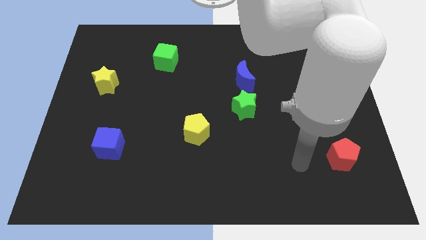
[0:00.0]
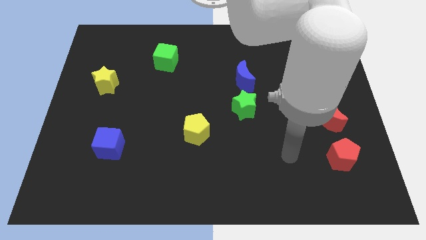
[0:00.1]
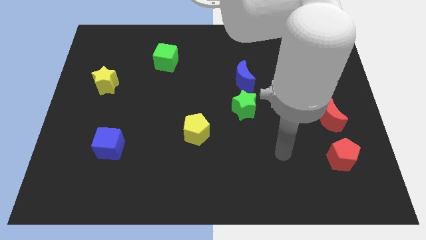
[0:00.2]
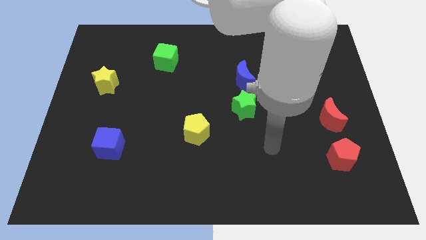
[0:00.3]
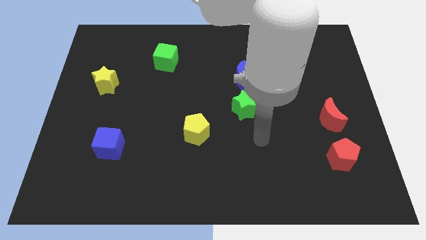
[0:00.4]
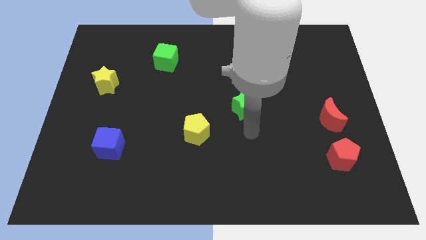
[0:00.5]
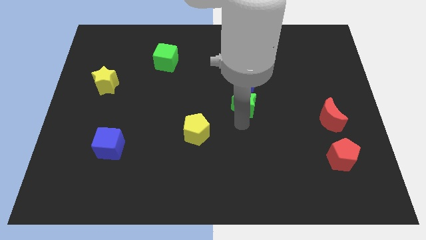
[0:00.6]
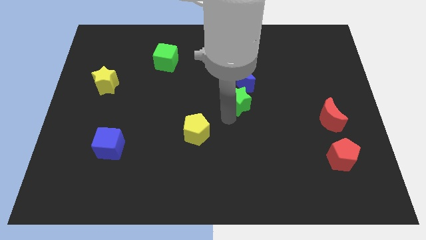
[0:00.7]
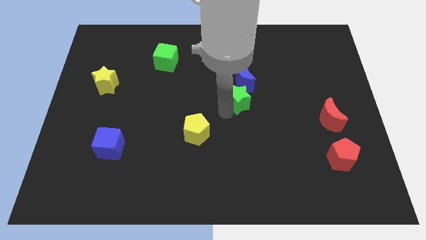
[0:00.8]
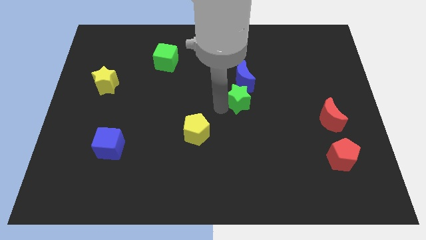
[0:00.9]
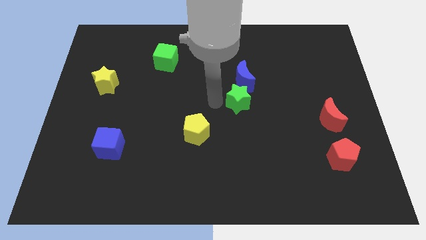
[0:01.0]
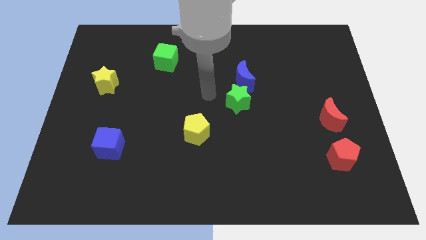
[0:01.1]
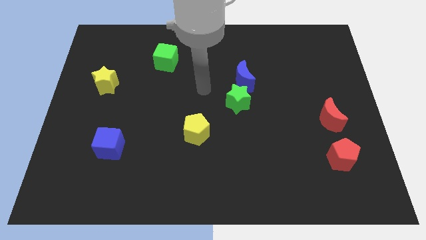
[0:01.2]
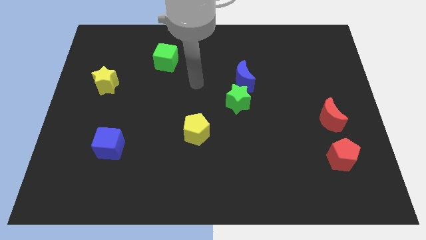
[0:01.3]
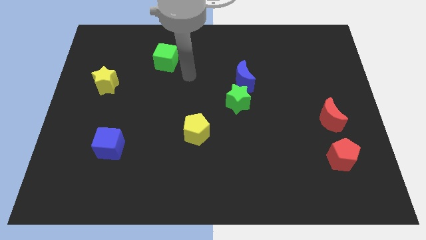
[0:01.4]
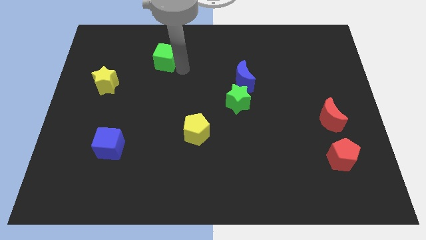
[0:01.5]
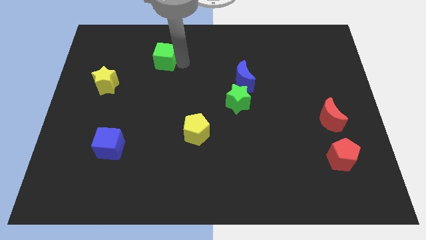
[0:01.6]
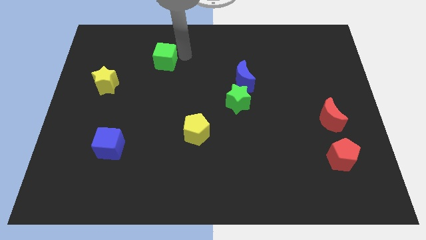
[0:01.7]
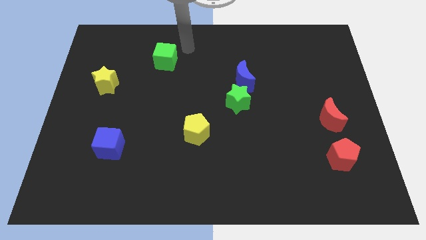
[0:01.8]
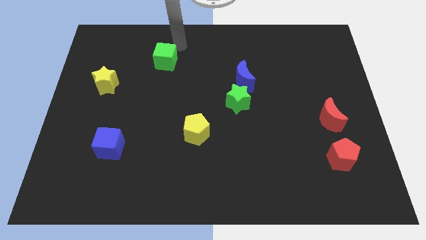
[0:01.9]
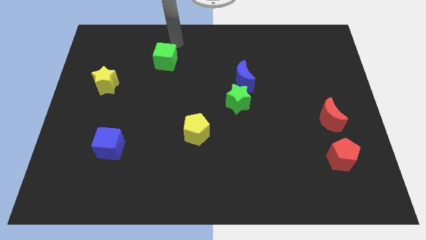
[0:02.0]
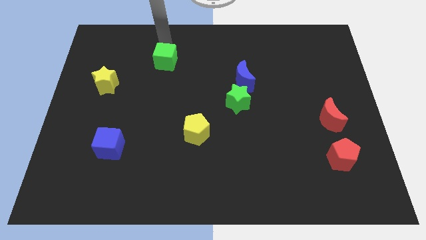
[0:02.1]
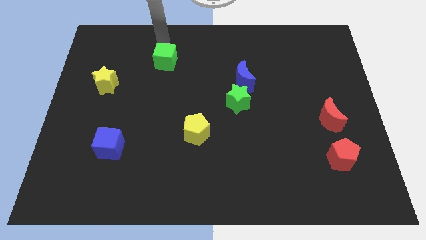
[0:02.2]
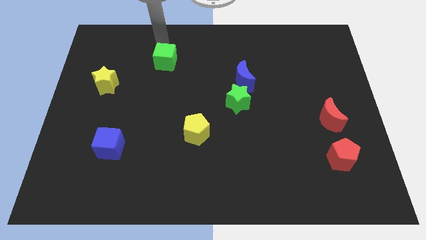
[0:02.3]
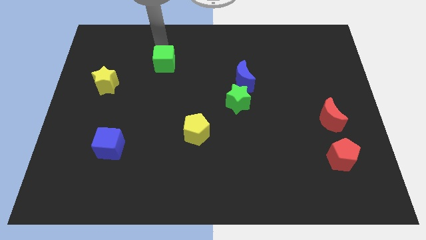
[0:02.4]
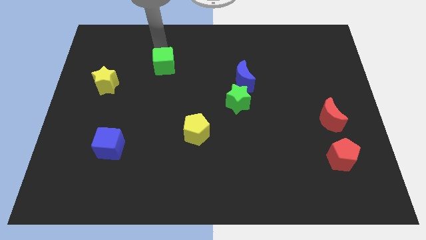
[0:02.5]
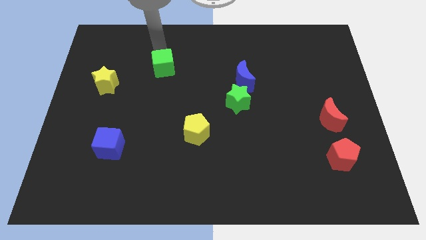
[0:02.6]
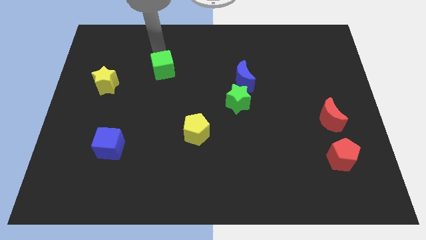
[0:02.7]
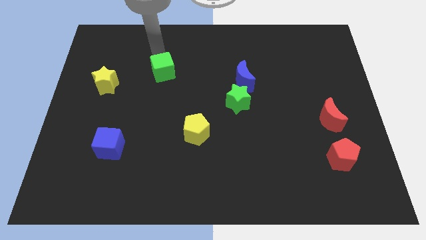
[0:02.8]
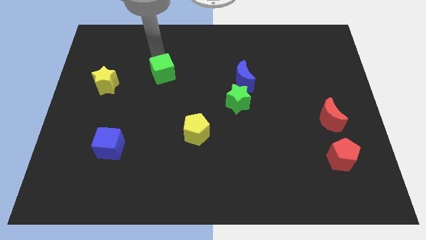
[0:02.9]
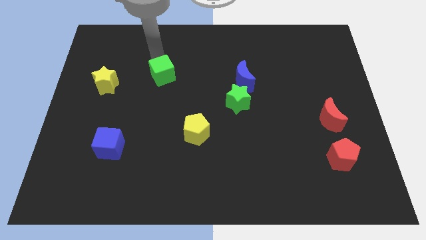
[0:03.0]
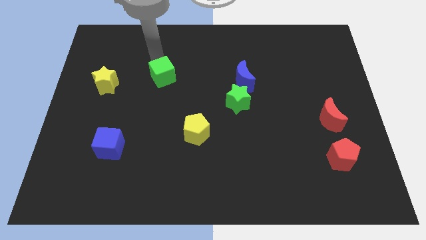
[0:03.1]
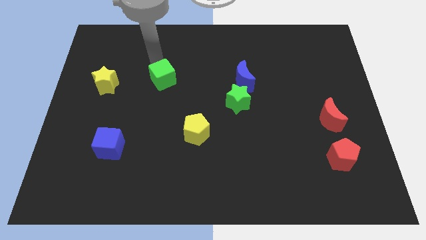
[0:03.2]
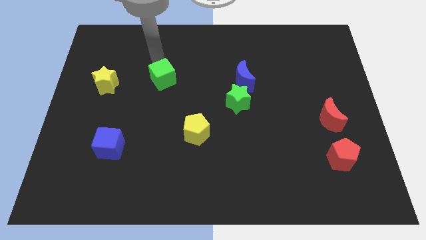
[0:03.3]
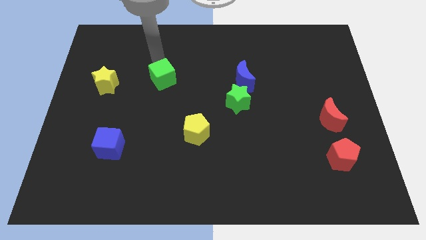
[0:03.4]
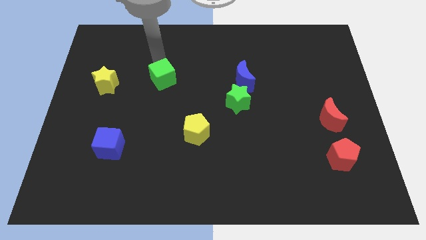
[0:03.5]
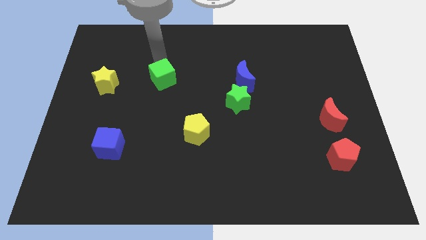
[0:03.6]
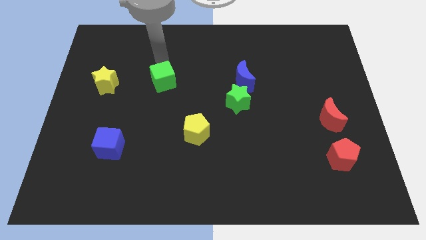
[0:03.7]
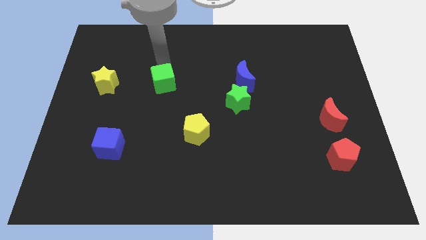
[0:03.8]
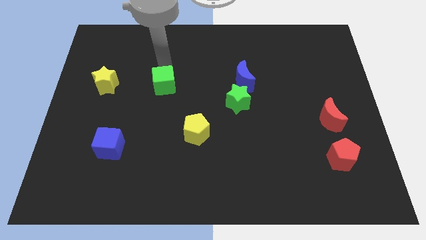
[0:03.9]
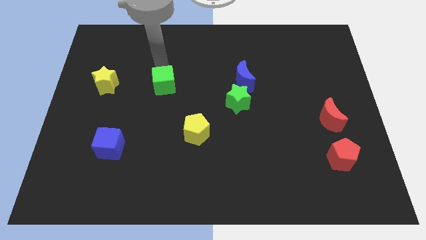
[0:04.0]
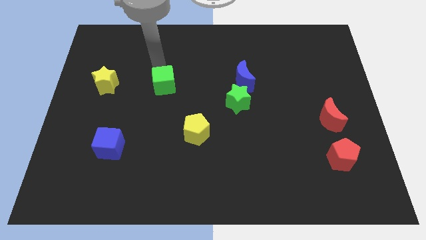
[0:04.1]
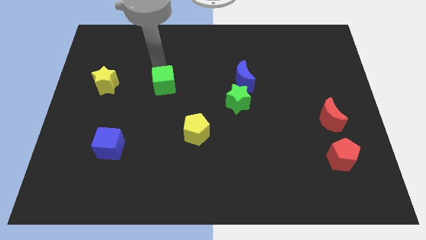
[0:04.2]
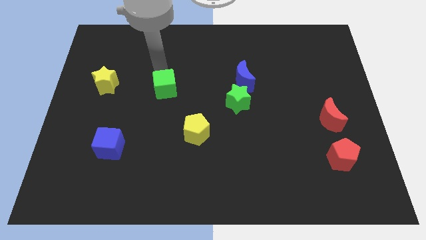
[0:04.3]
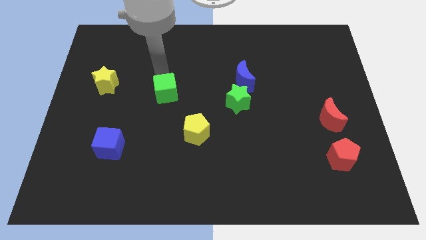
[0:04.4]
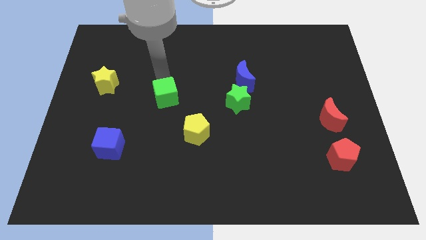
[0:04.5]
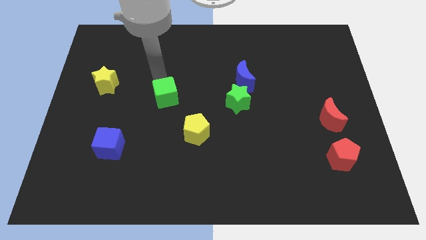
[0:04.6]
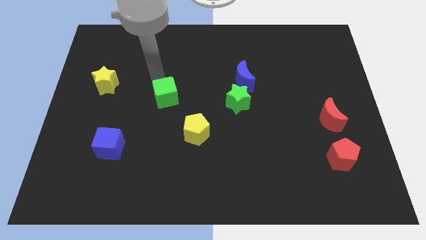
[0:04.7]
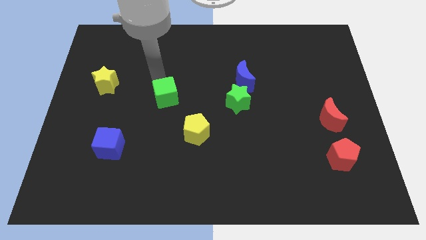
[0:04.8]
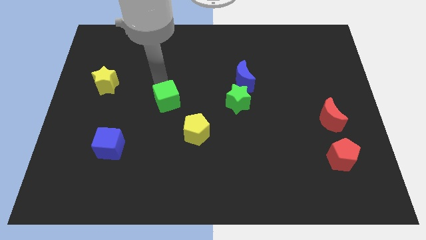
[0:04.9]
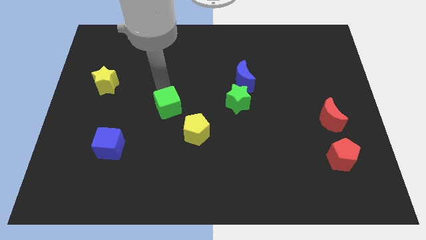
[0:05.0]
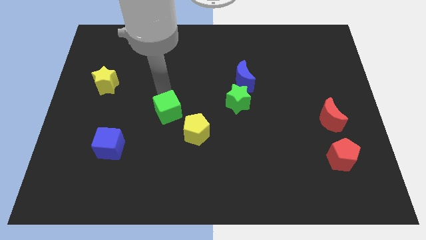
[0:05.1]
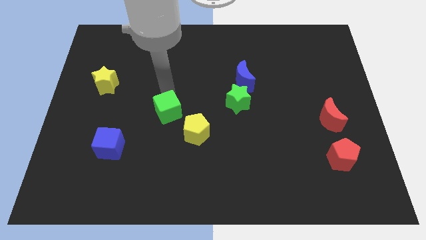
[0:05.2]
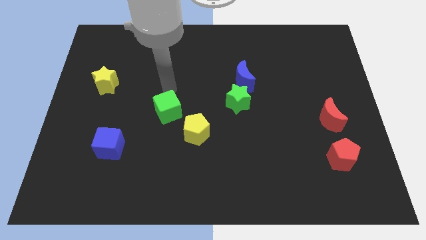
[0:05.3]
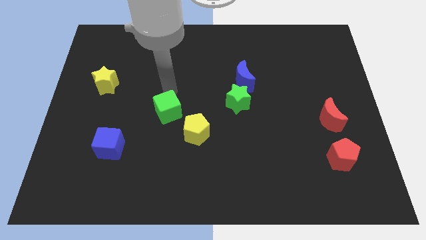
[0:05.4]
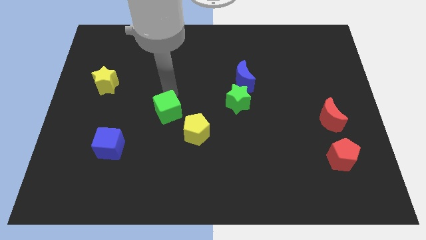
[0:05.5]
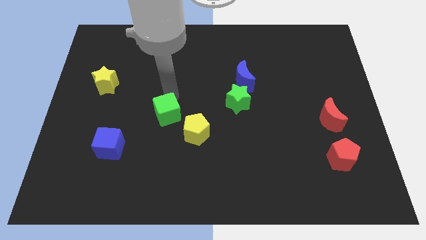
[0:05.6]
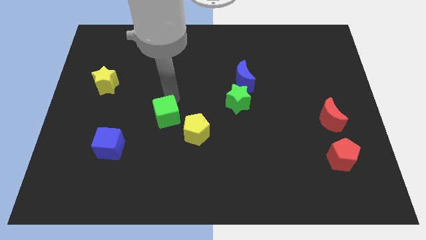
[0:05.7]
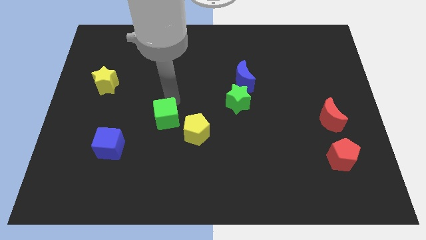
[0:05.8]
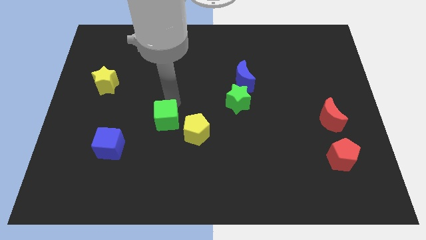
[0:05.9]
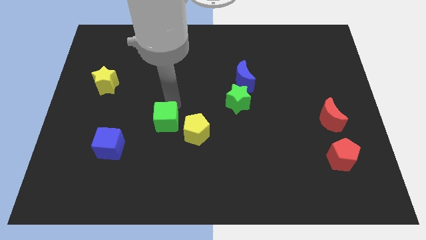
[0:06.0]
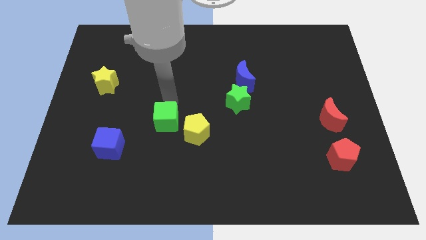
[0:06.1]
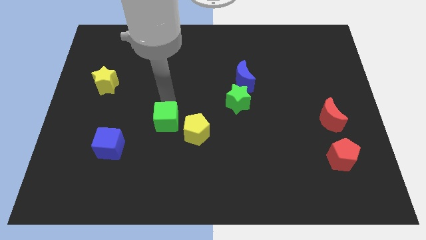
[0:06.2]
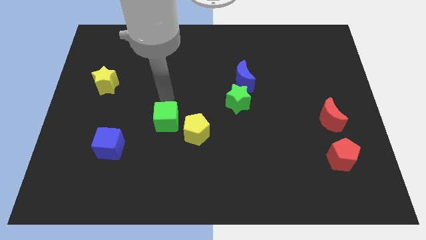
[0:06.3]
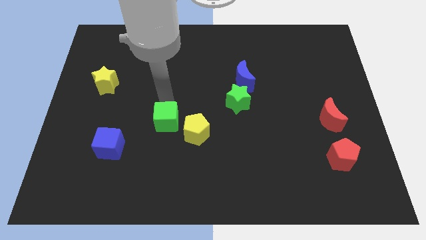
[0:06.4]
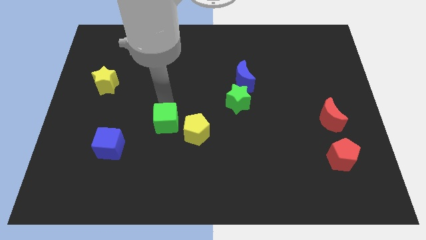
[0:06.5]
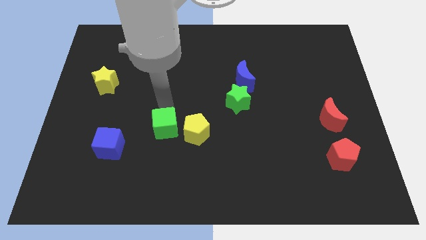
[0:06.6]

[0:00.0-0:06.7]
push the green cube down

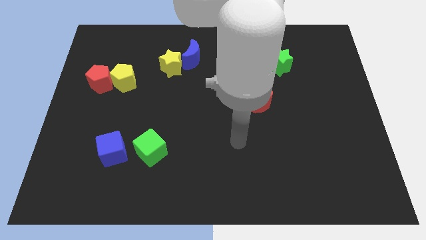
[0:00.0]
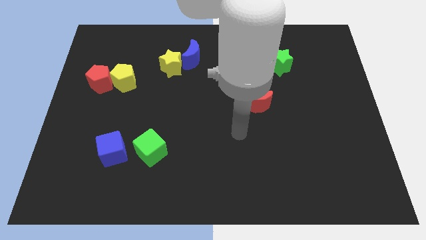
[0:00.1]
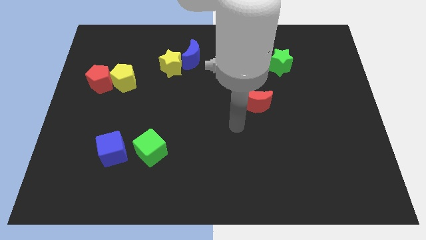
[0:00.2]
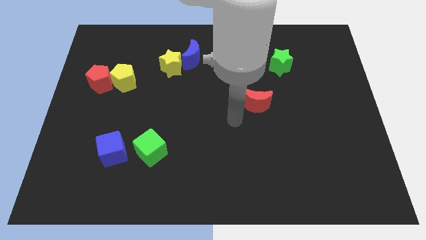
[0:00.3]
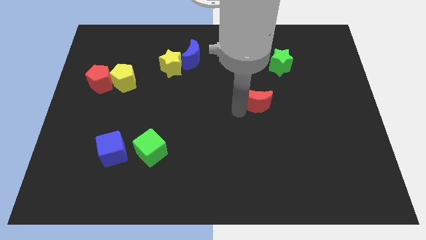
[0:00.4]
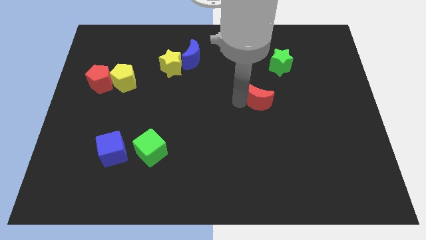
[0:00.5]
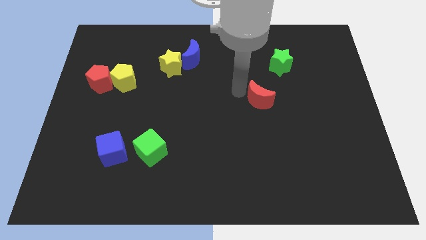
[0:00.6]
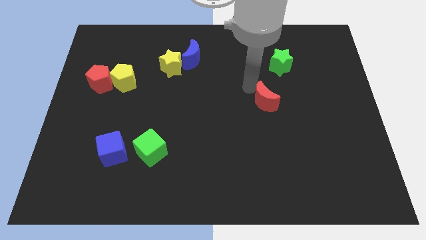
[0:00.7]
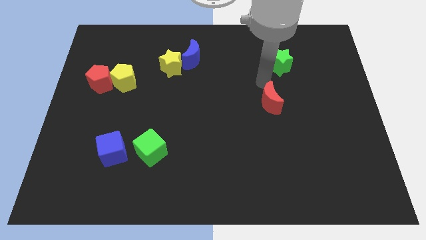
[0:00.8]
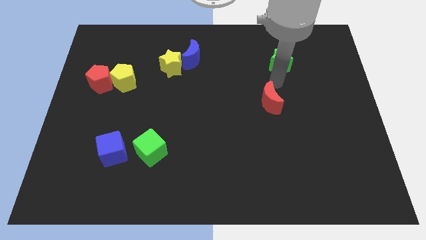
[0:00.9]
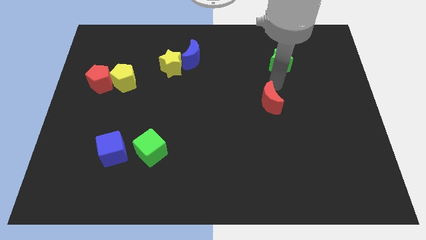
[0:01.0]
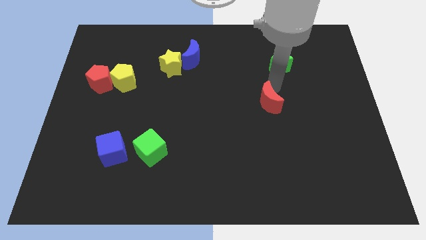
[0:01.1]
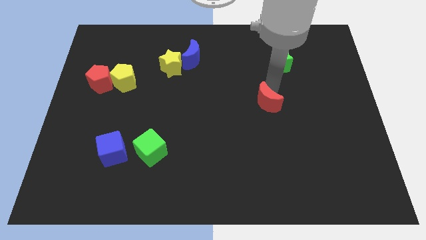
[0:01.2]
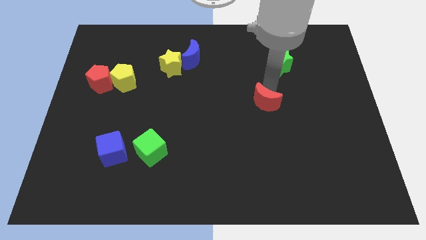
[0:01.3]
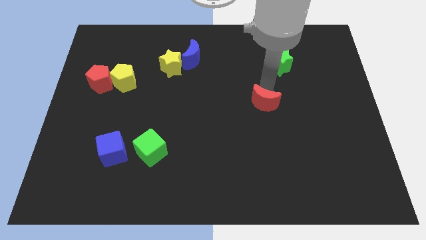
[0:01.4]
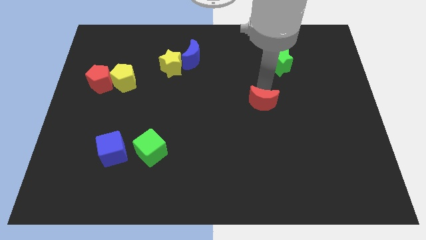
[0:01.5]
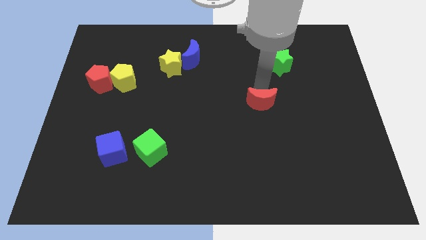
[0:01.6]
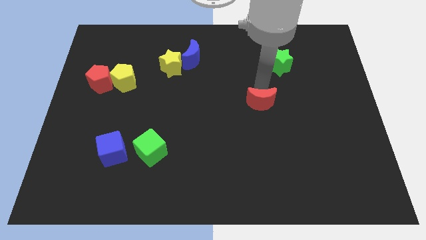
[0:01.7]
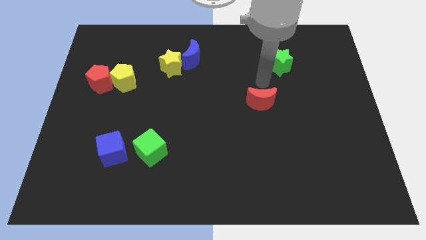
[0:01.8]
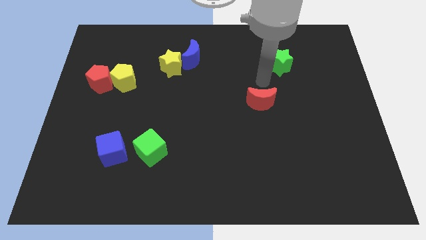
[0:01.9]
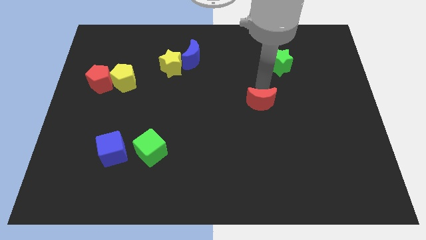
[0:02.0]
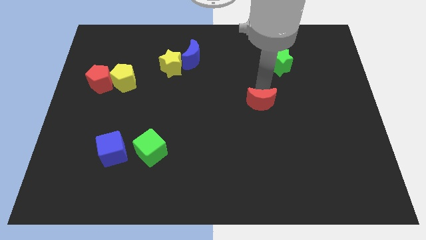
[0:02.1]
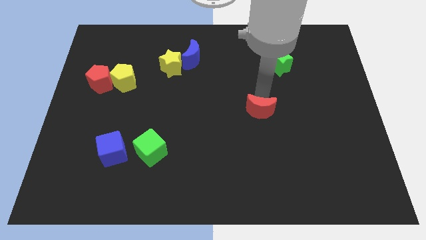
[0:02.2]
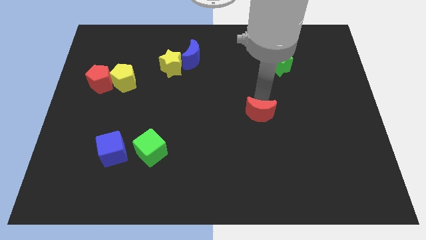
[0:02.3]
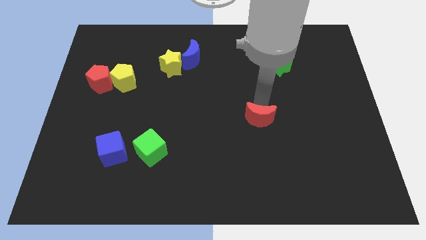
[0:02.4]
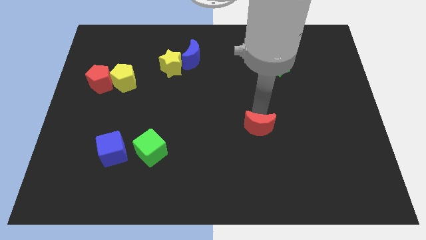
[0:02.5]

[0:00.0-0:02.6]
slide the red moon down a little bit
